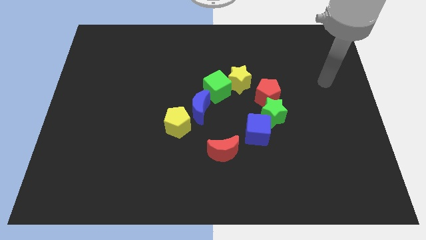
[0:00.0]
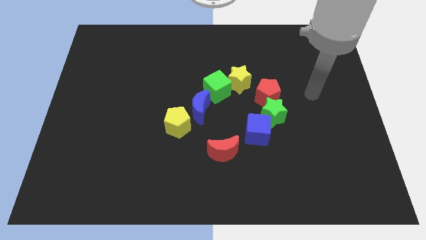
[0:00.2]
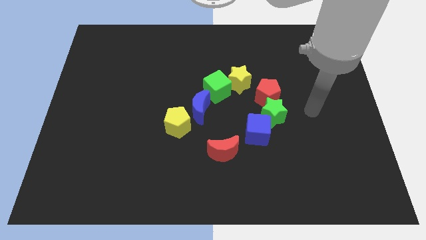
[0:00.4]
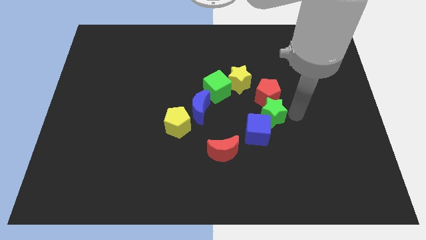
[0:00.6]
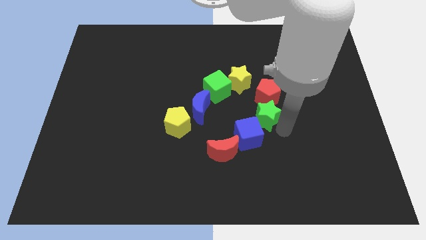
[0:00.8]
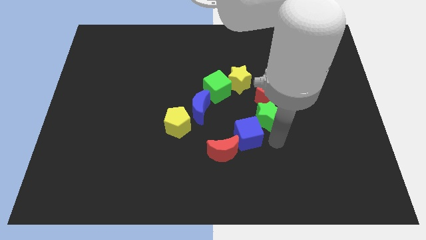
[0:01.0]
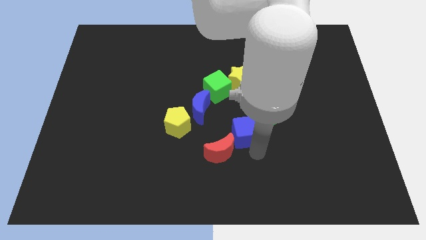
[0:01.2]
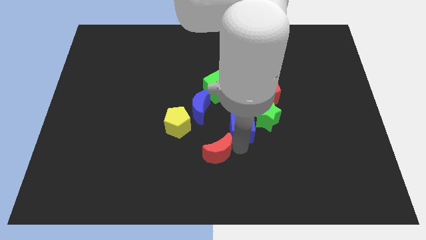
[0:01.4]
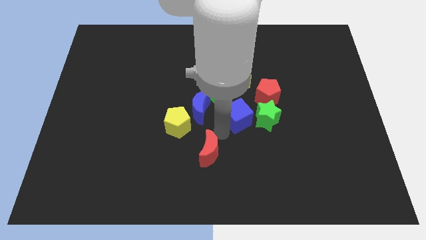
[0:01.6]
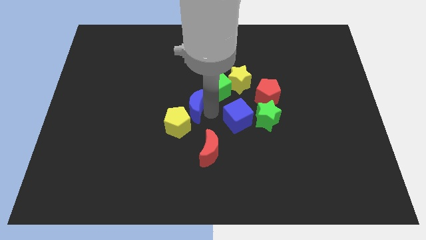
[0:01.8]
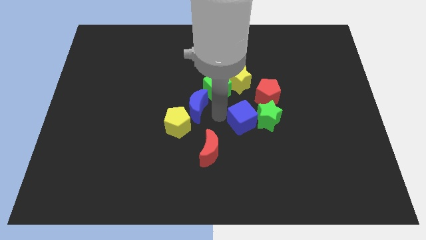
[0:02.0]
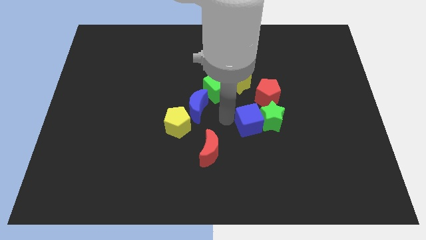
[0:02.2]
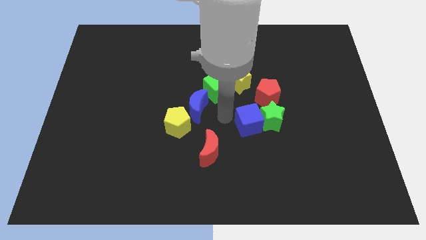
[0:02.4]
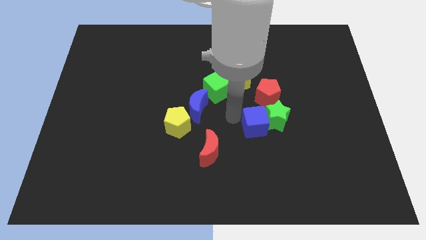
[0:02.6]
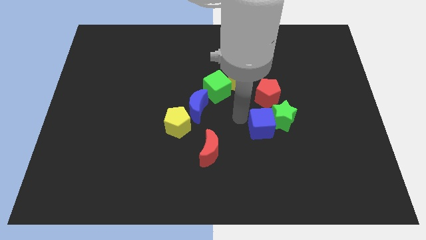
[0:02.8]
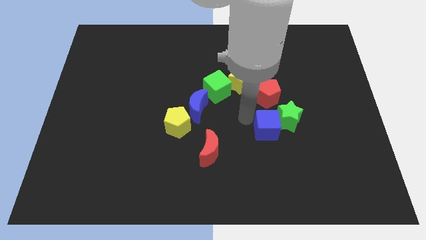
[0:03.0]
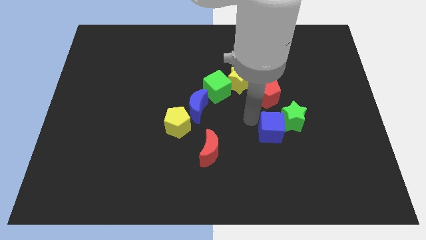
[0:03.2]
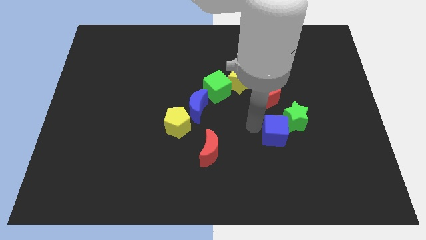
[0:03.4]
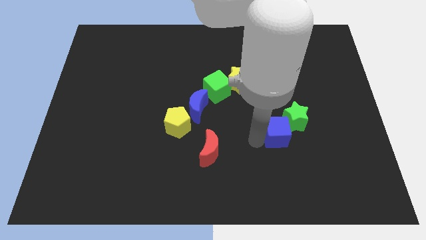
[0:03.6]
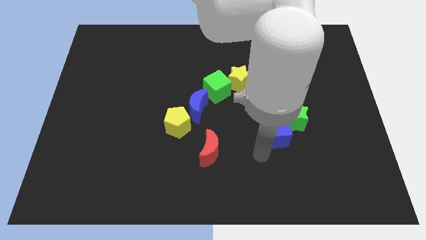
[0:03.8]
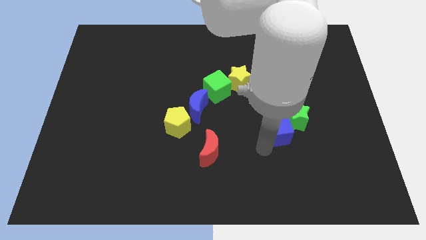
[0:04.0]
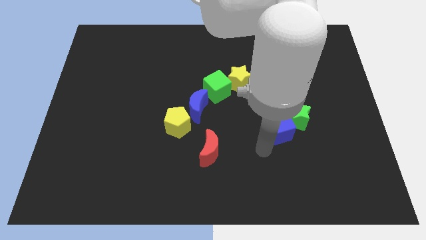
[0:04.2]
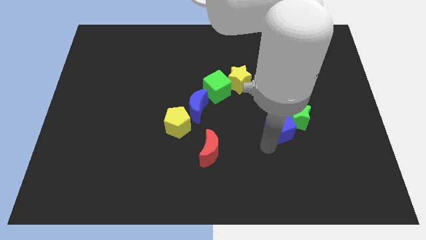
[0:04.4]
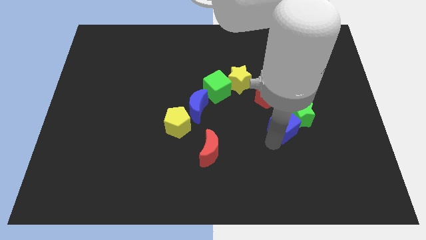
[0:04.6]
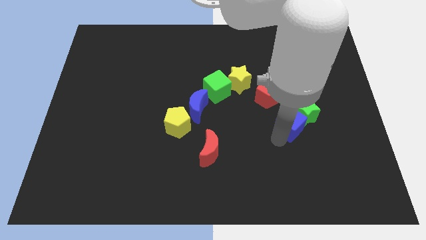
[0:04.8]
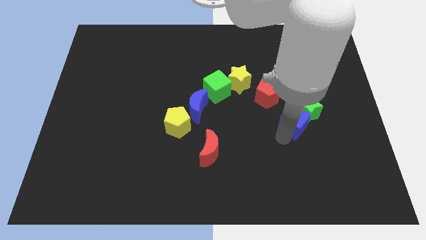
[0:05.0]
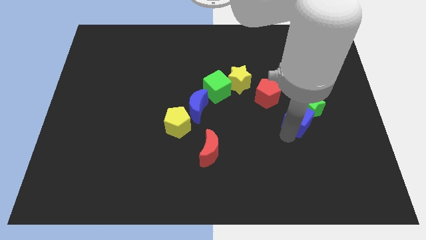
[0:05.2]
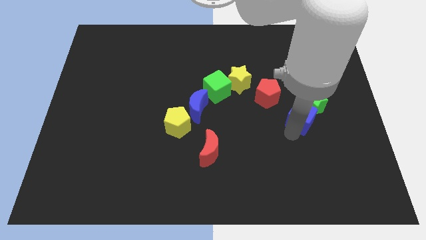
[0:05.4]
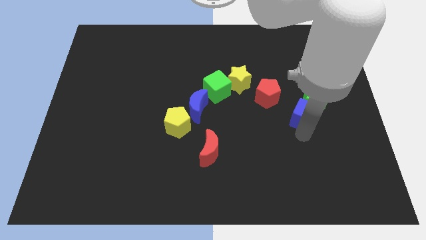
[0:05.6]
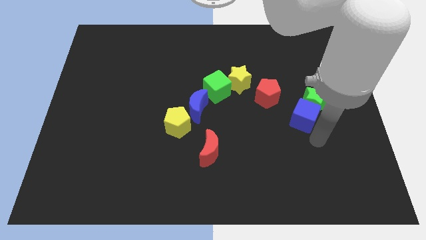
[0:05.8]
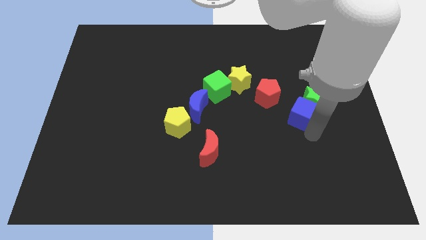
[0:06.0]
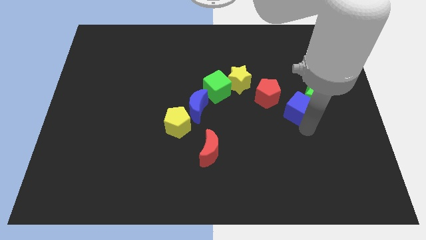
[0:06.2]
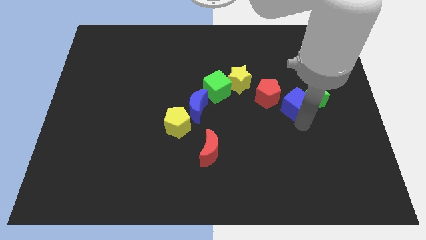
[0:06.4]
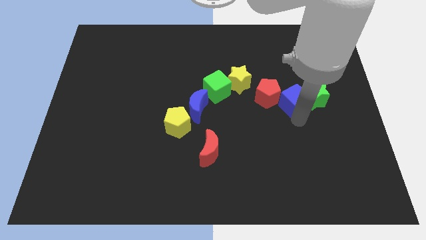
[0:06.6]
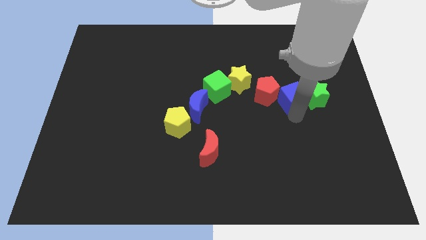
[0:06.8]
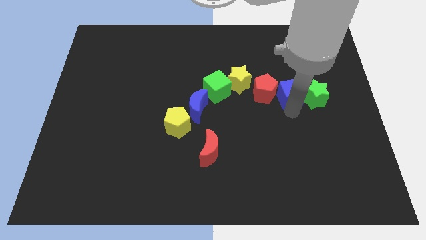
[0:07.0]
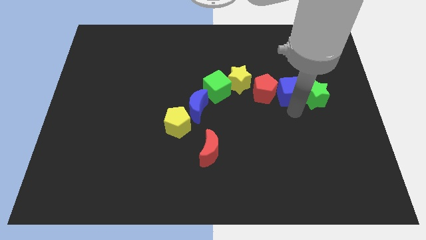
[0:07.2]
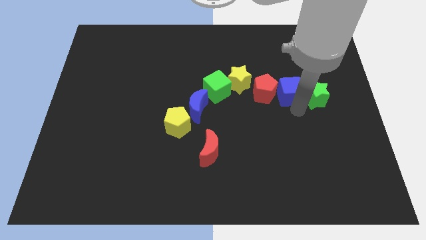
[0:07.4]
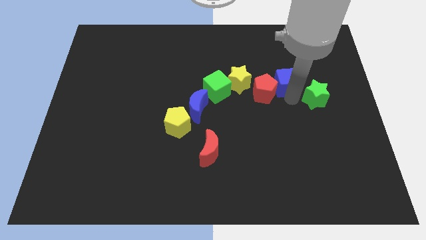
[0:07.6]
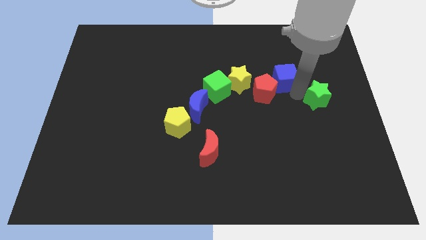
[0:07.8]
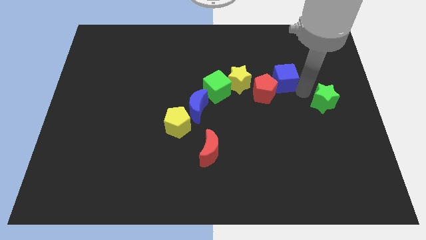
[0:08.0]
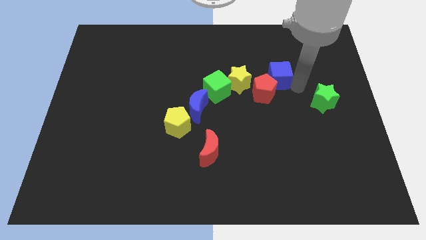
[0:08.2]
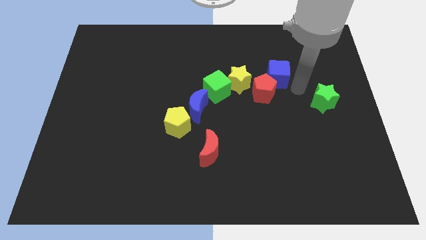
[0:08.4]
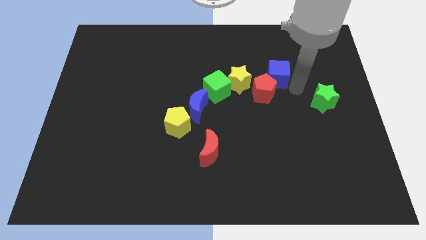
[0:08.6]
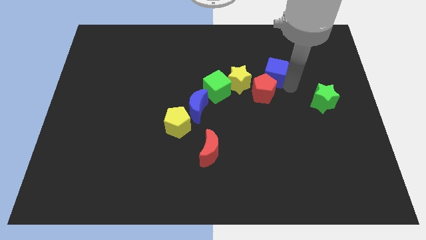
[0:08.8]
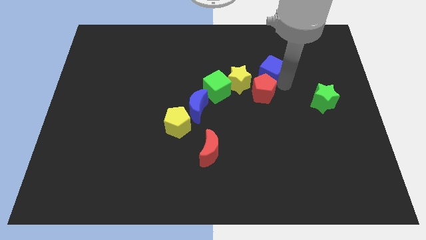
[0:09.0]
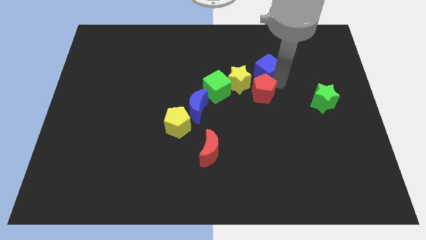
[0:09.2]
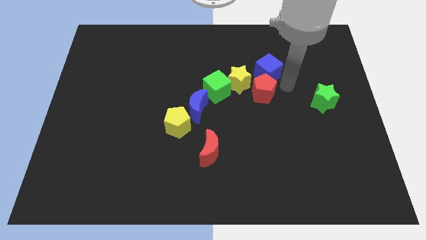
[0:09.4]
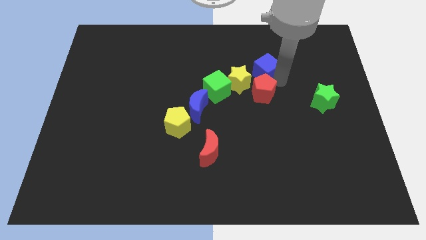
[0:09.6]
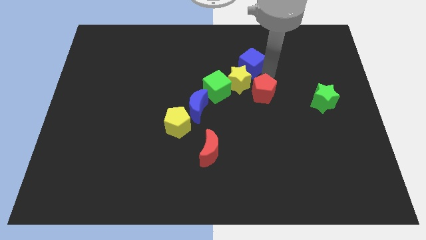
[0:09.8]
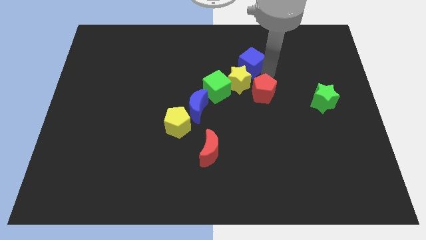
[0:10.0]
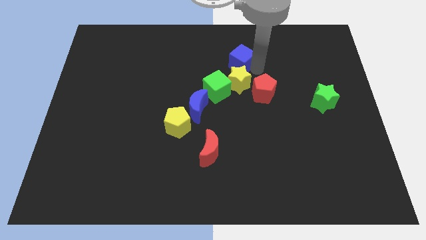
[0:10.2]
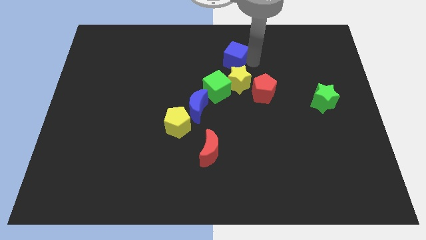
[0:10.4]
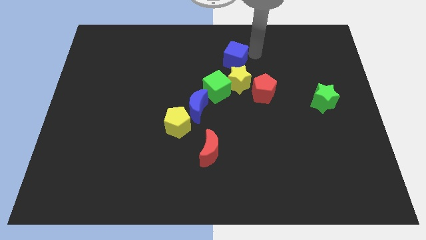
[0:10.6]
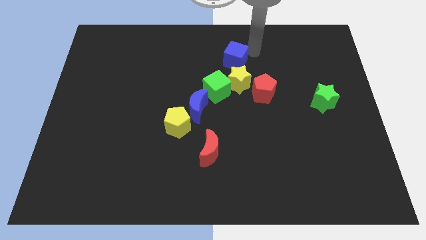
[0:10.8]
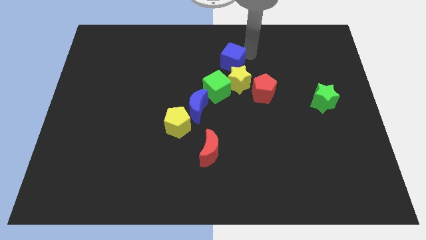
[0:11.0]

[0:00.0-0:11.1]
put the blue cube diagonally up and to the left of the yellow star

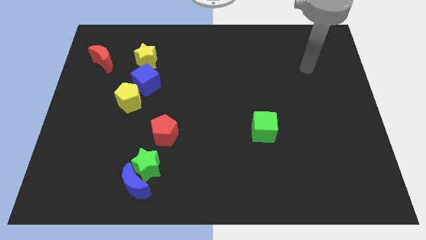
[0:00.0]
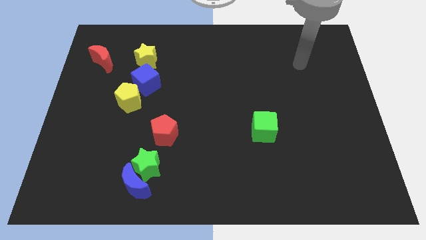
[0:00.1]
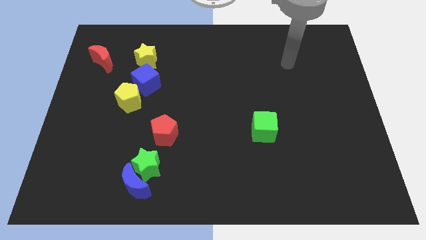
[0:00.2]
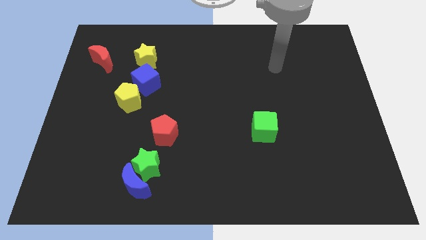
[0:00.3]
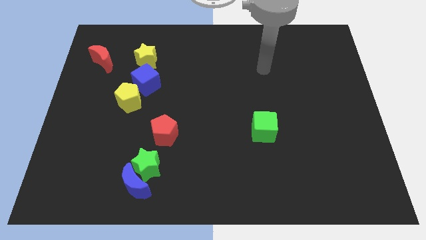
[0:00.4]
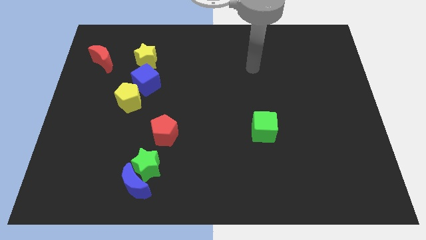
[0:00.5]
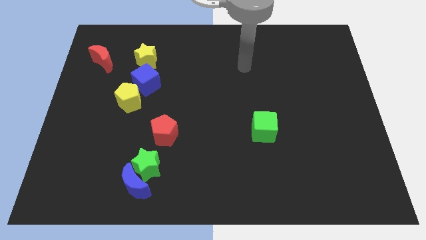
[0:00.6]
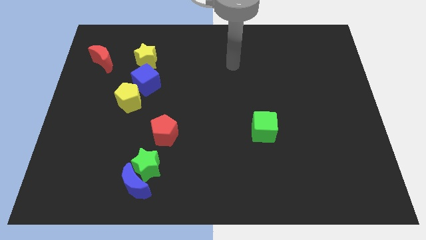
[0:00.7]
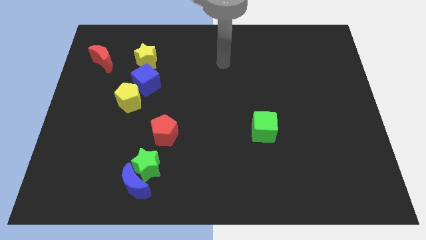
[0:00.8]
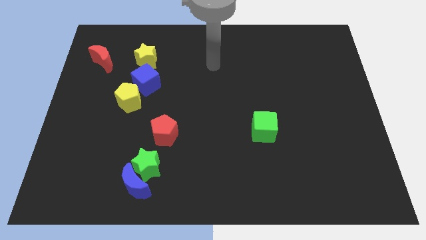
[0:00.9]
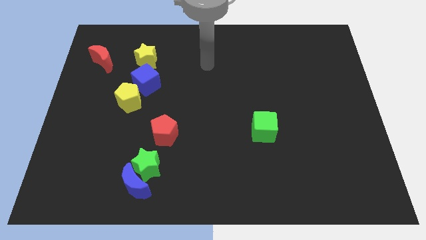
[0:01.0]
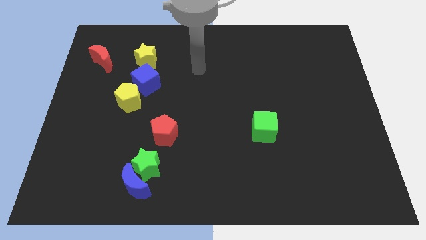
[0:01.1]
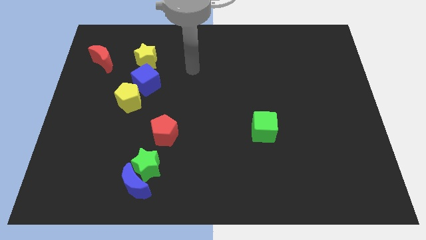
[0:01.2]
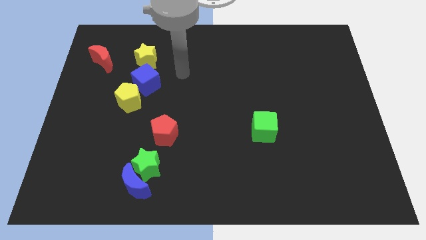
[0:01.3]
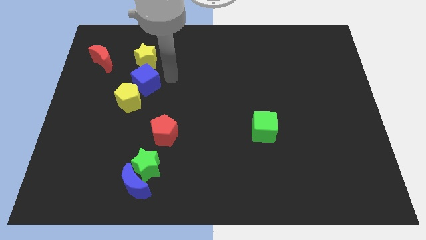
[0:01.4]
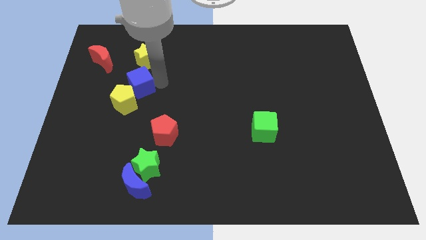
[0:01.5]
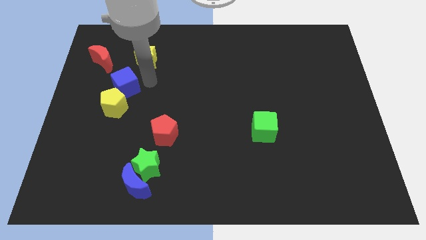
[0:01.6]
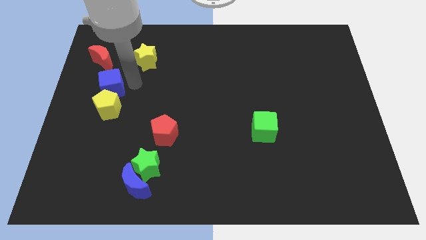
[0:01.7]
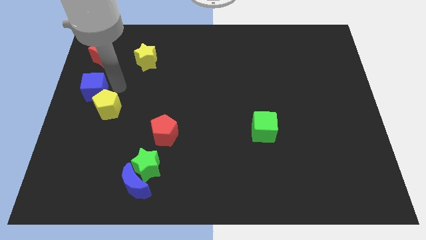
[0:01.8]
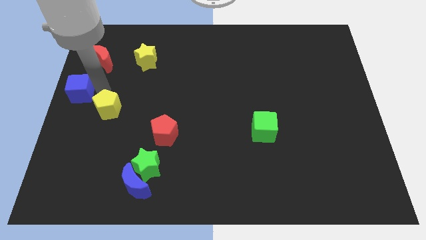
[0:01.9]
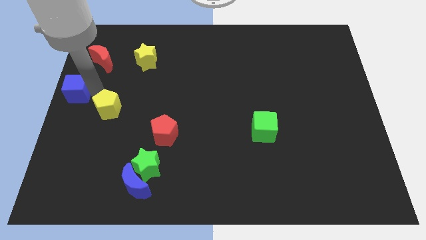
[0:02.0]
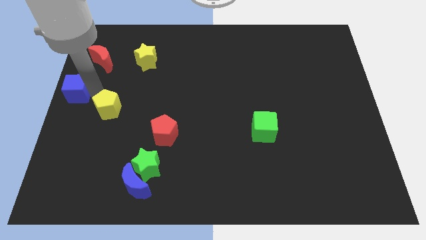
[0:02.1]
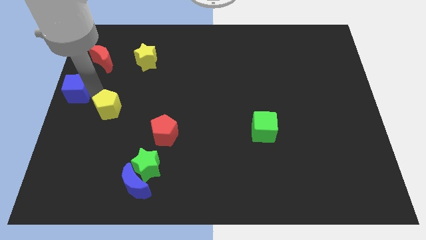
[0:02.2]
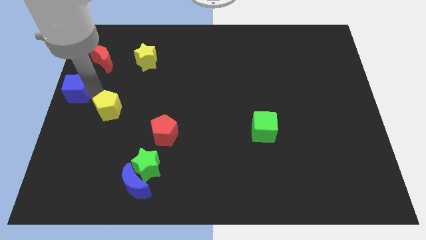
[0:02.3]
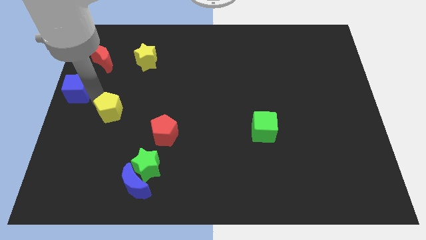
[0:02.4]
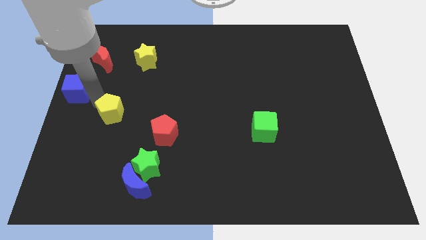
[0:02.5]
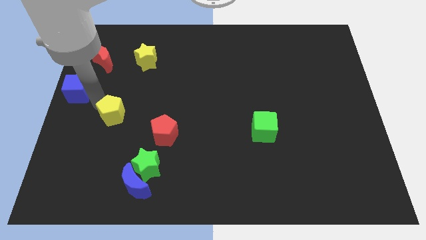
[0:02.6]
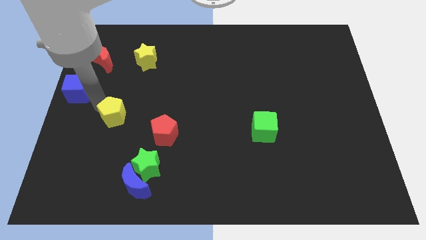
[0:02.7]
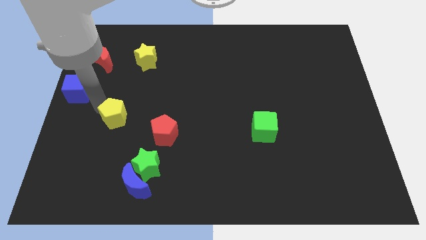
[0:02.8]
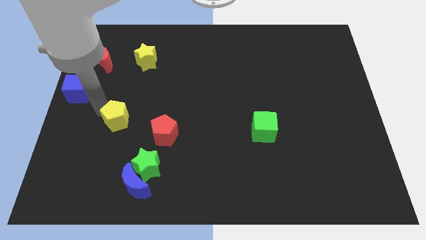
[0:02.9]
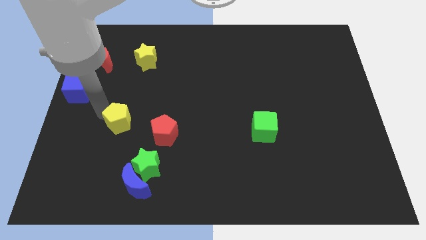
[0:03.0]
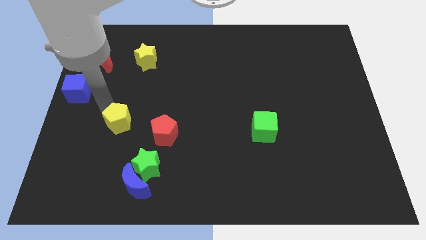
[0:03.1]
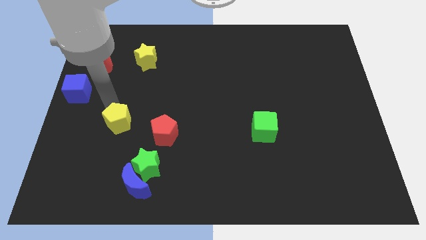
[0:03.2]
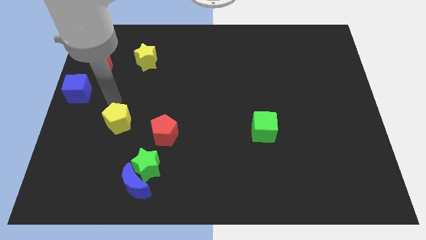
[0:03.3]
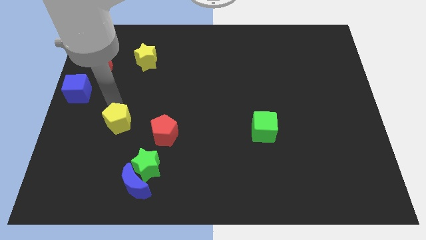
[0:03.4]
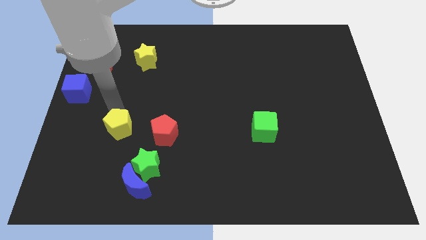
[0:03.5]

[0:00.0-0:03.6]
push the yellow pentagon diagonally up and to the left of the green star
